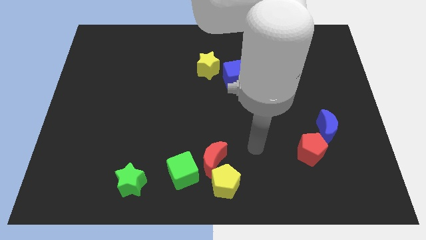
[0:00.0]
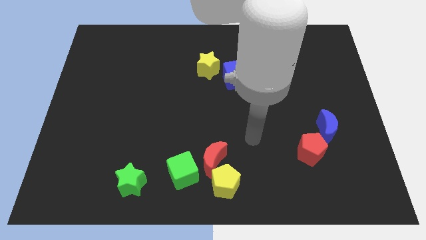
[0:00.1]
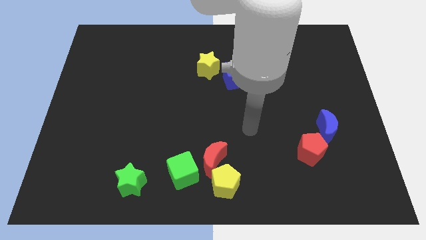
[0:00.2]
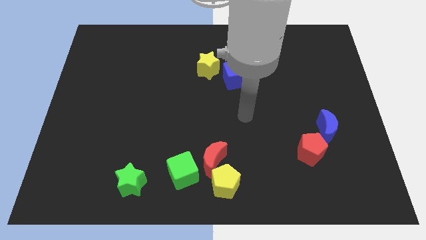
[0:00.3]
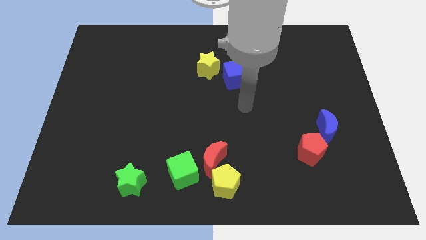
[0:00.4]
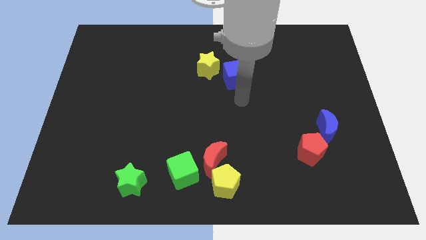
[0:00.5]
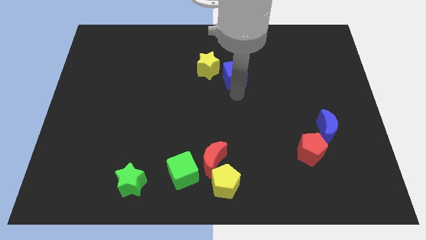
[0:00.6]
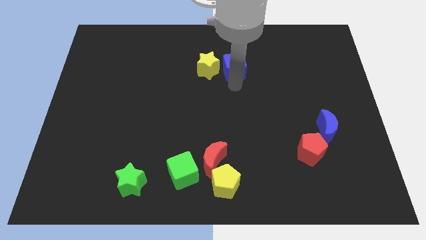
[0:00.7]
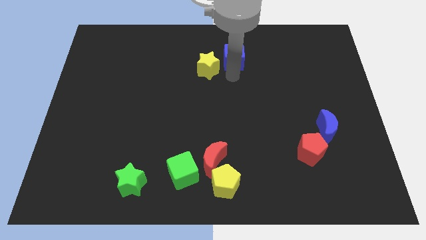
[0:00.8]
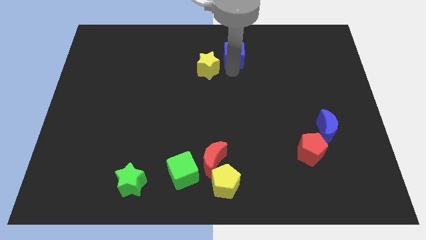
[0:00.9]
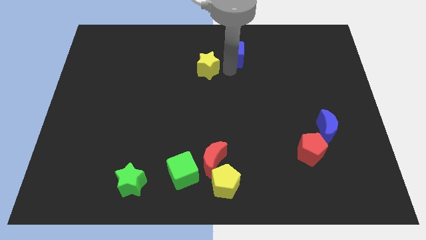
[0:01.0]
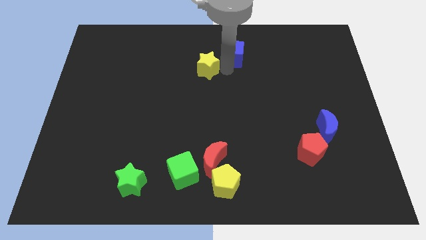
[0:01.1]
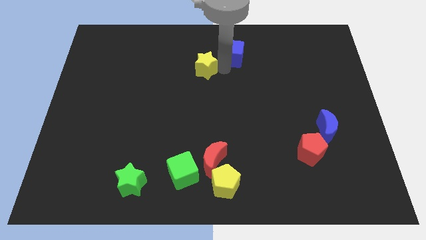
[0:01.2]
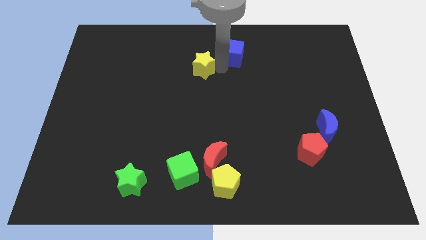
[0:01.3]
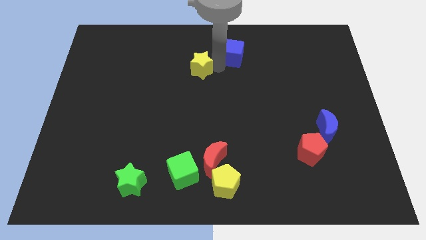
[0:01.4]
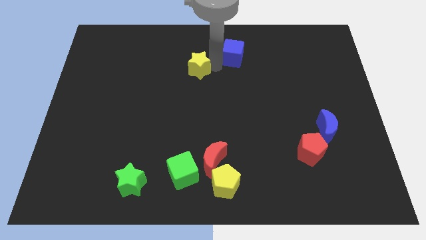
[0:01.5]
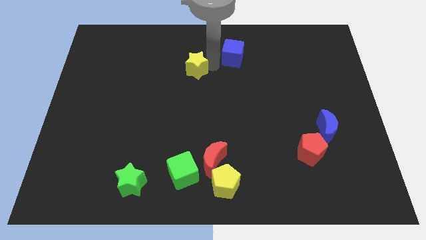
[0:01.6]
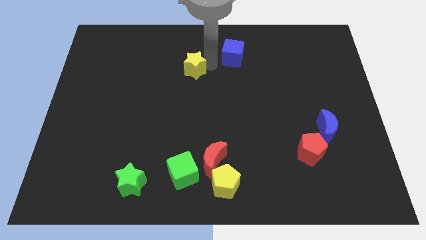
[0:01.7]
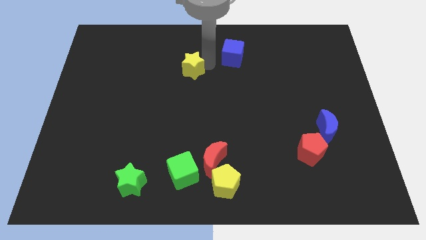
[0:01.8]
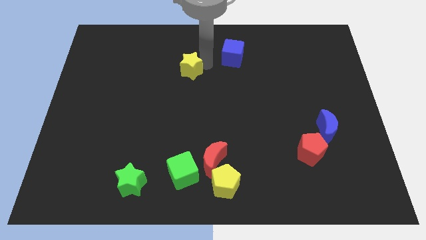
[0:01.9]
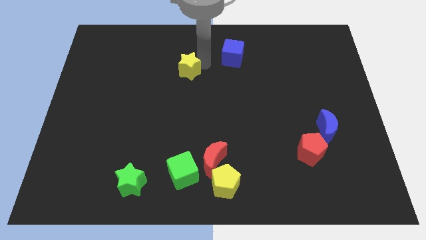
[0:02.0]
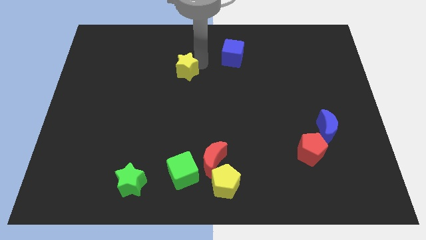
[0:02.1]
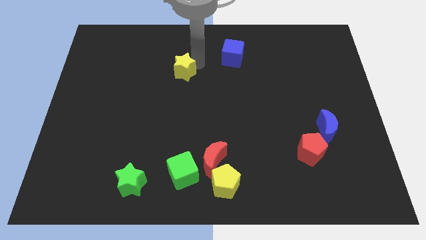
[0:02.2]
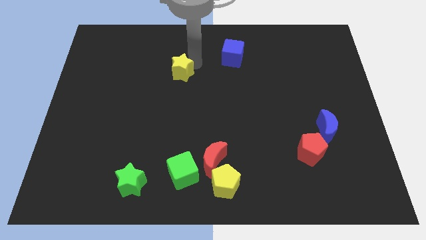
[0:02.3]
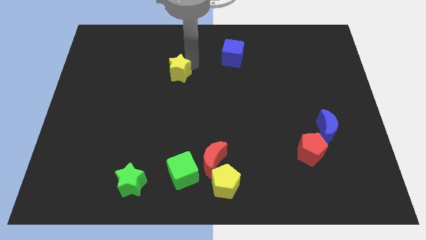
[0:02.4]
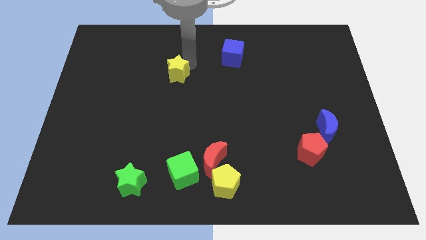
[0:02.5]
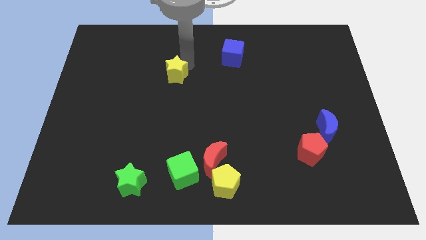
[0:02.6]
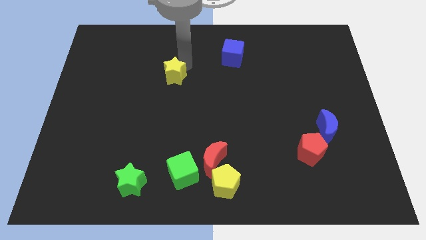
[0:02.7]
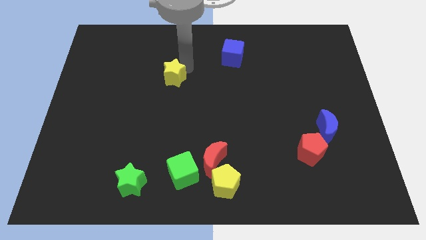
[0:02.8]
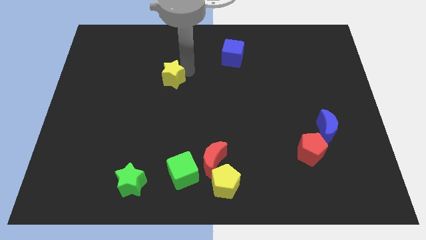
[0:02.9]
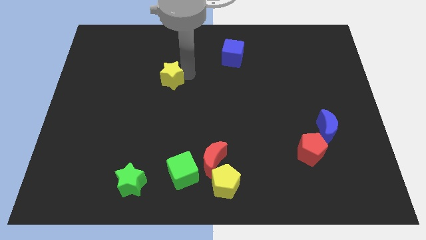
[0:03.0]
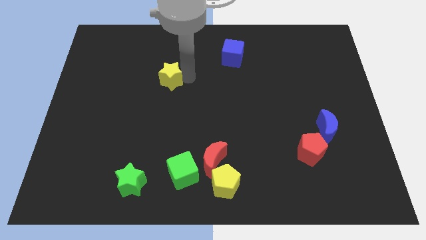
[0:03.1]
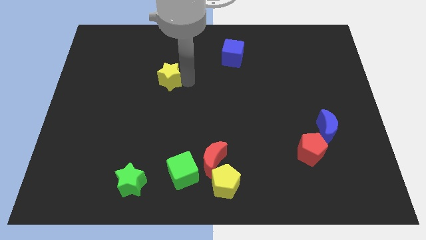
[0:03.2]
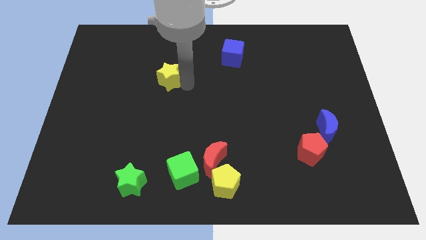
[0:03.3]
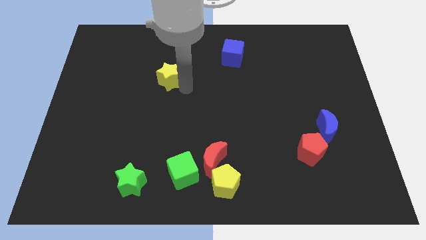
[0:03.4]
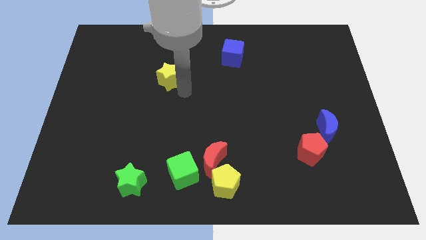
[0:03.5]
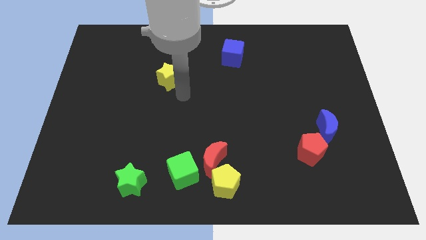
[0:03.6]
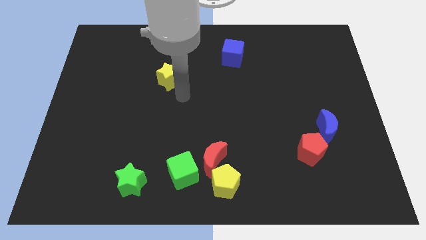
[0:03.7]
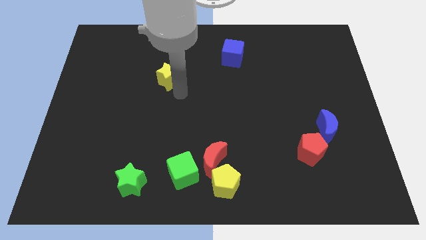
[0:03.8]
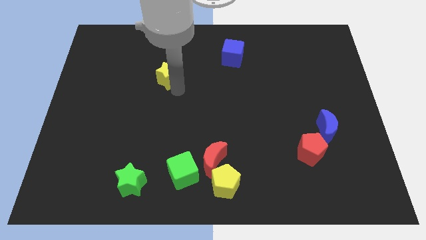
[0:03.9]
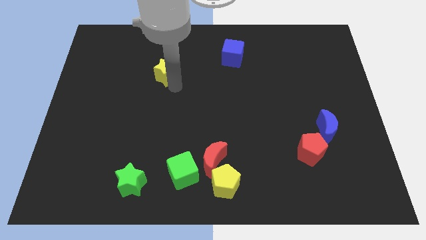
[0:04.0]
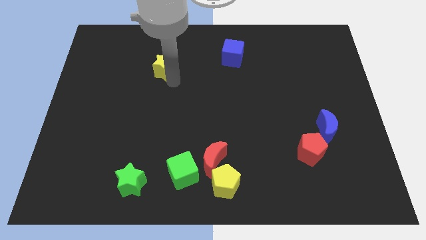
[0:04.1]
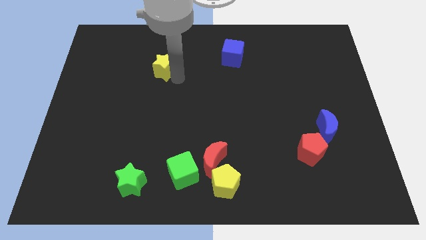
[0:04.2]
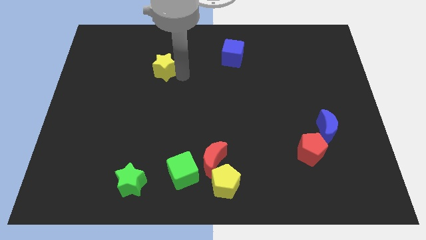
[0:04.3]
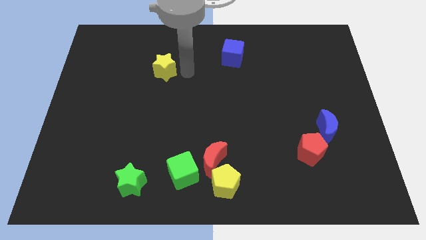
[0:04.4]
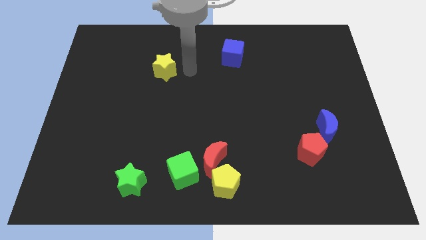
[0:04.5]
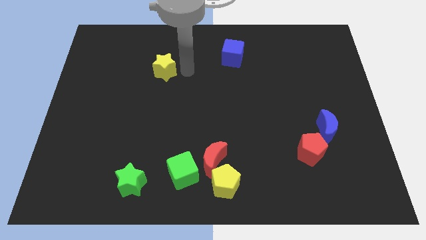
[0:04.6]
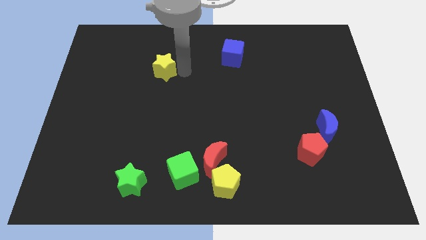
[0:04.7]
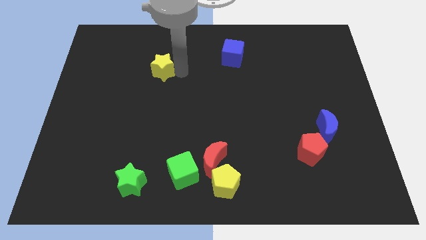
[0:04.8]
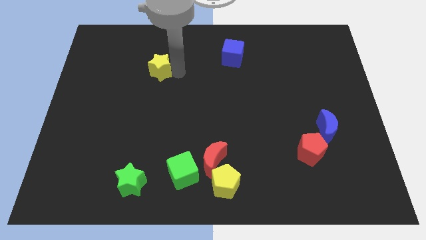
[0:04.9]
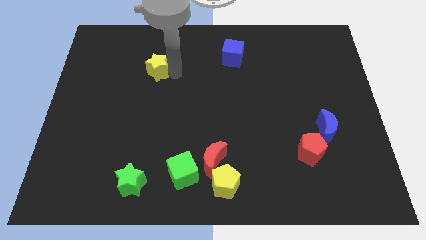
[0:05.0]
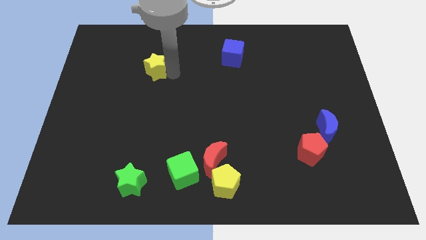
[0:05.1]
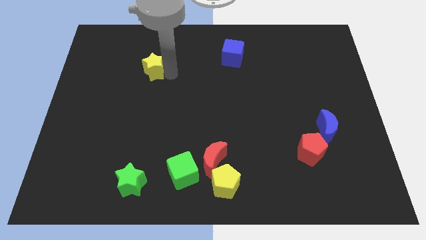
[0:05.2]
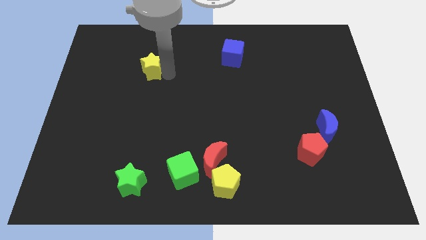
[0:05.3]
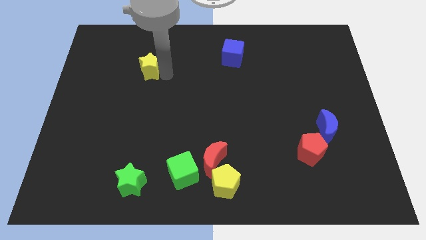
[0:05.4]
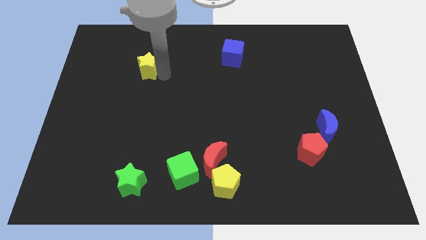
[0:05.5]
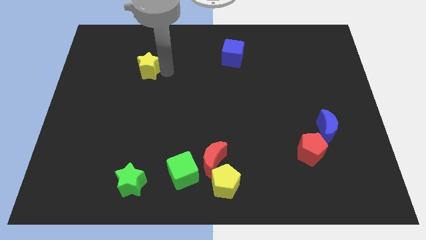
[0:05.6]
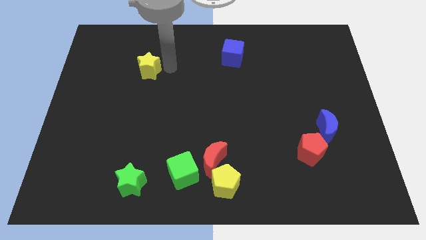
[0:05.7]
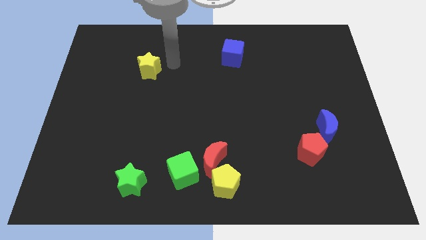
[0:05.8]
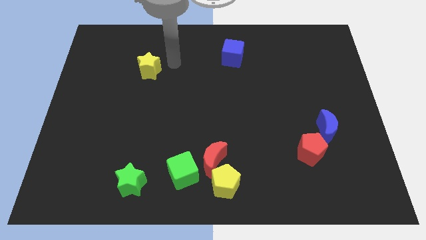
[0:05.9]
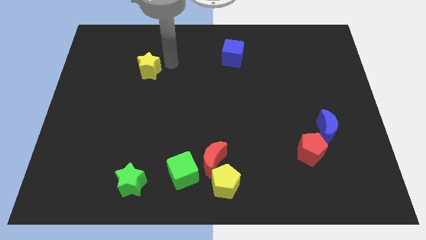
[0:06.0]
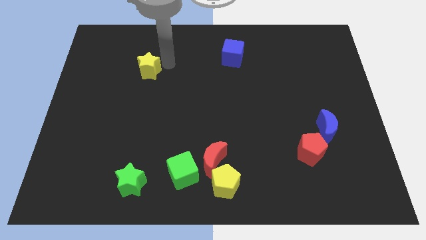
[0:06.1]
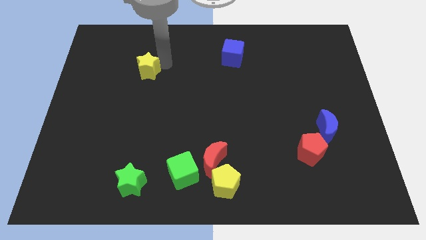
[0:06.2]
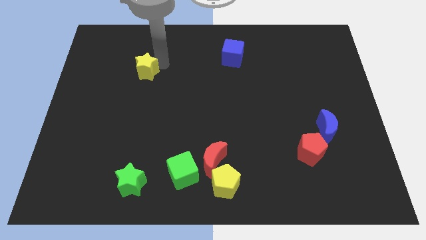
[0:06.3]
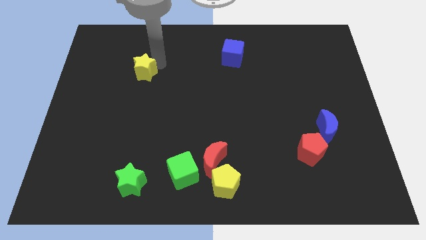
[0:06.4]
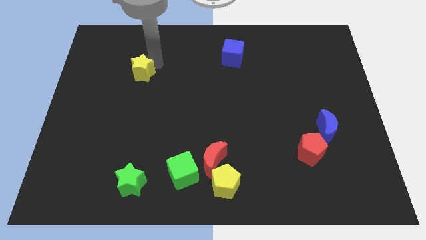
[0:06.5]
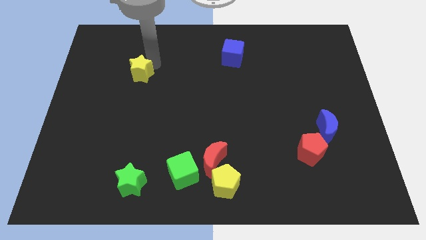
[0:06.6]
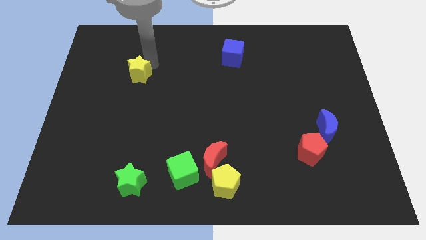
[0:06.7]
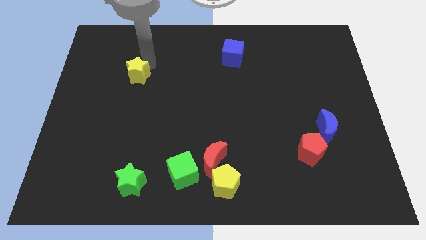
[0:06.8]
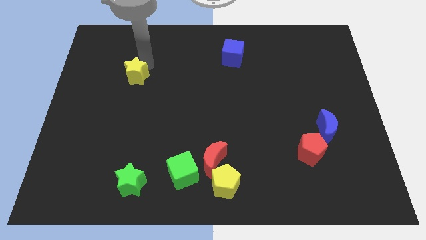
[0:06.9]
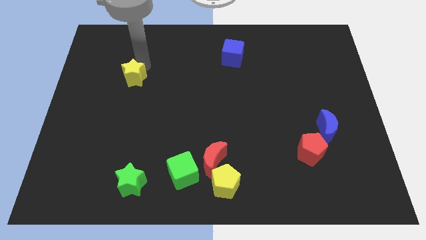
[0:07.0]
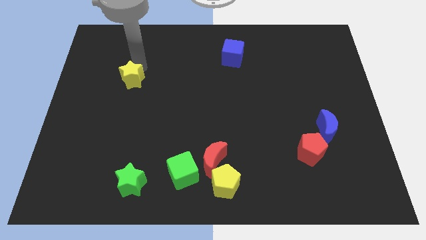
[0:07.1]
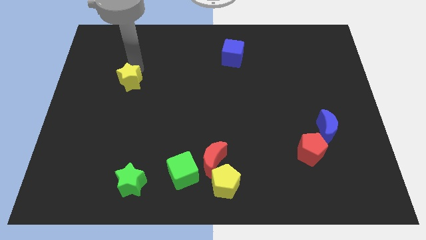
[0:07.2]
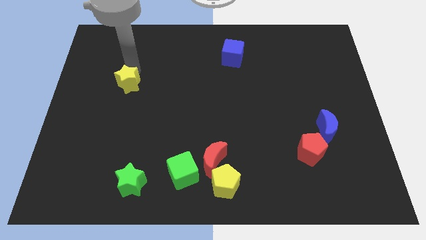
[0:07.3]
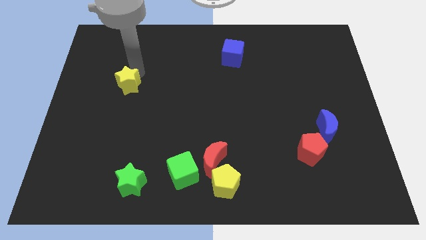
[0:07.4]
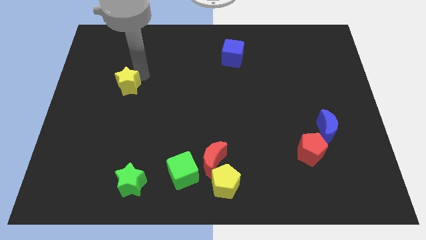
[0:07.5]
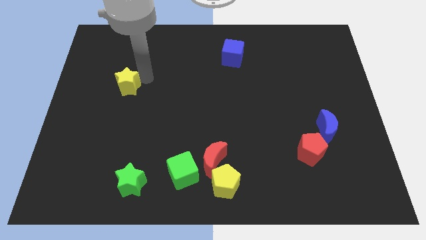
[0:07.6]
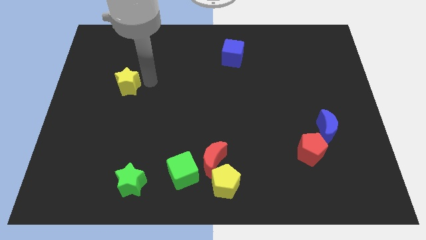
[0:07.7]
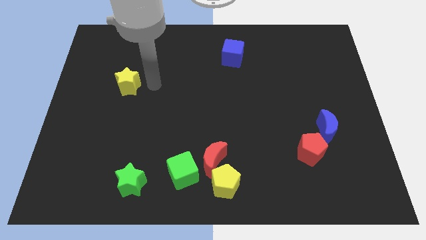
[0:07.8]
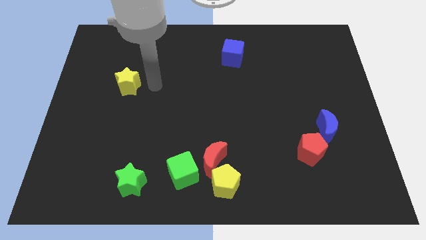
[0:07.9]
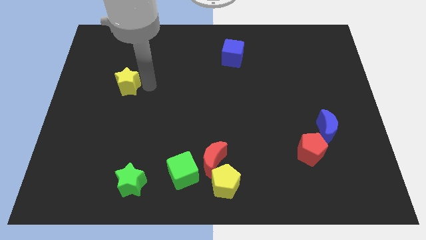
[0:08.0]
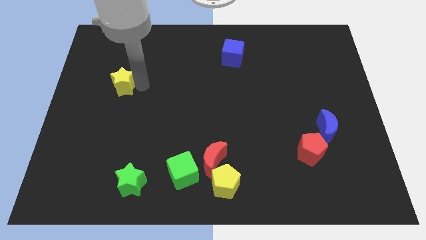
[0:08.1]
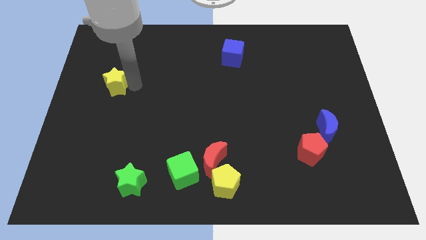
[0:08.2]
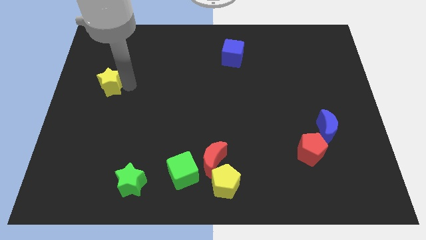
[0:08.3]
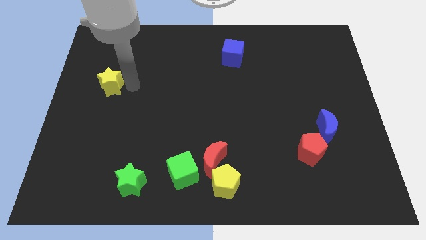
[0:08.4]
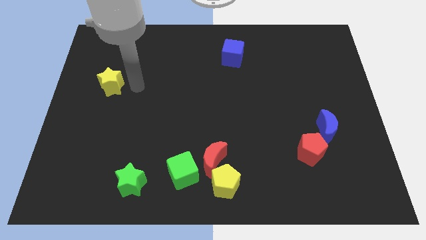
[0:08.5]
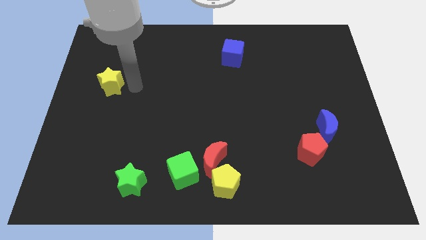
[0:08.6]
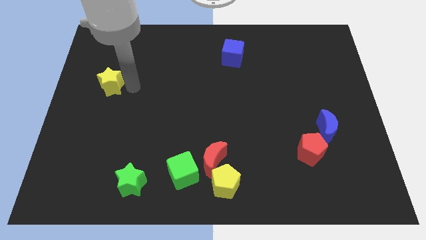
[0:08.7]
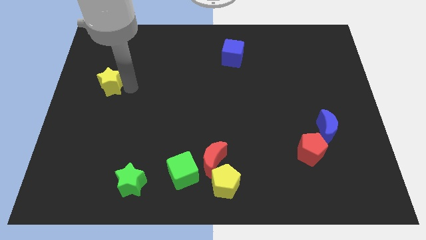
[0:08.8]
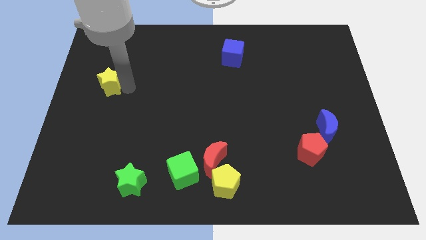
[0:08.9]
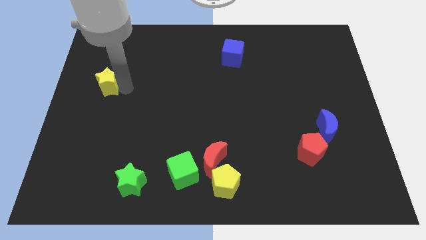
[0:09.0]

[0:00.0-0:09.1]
slide the yellow star to the left side of the board
